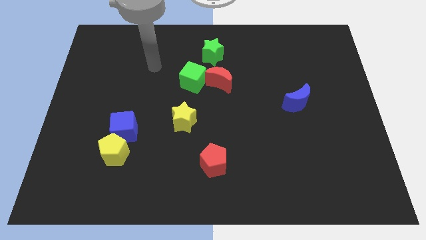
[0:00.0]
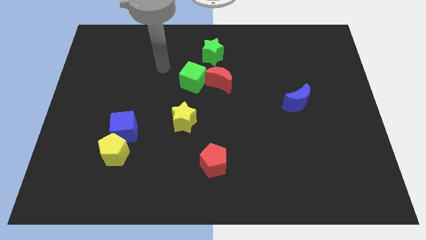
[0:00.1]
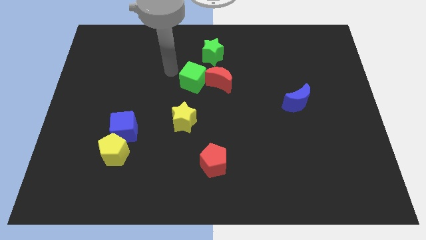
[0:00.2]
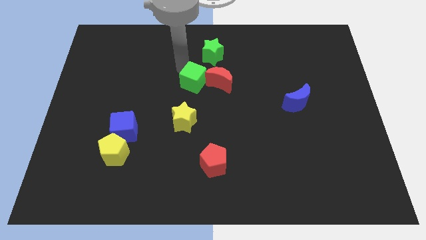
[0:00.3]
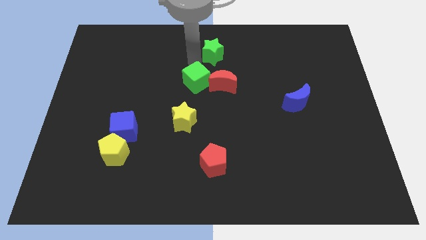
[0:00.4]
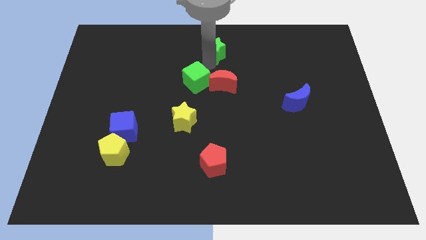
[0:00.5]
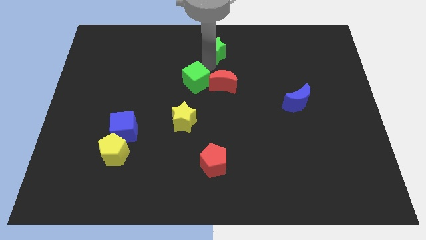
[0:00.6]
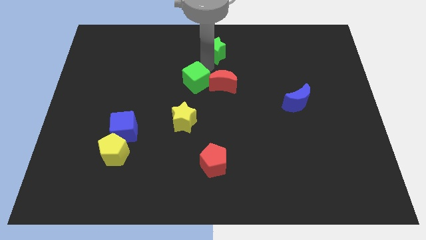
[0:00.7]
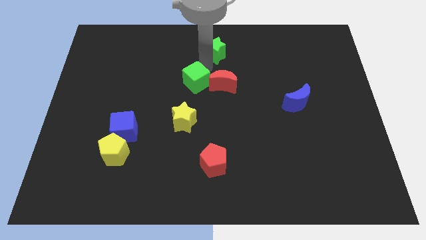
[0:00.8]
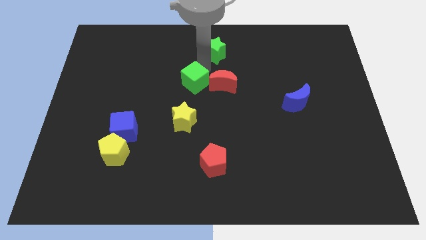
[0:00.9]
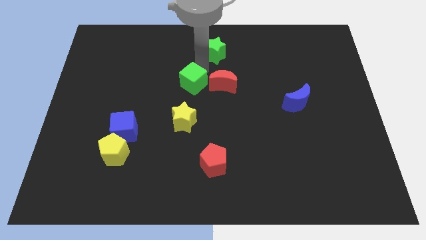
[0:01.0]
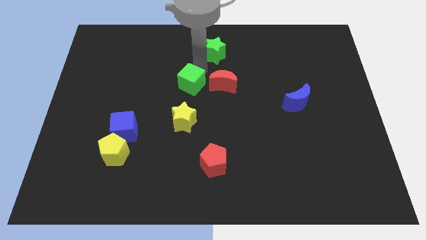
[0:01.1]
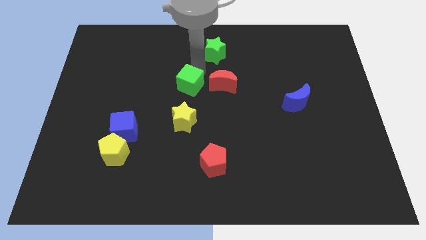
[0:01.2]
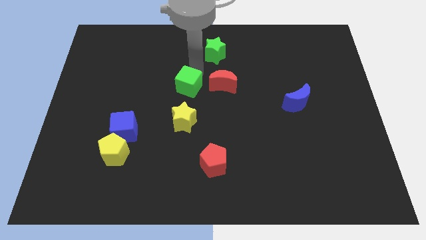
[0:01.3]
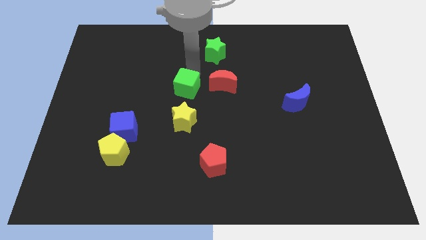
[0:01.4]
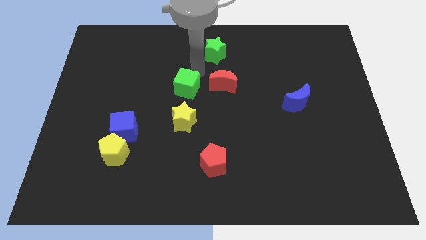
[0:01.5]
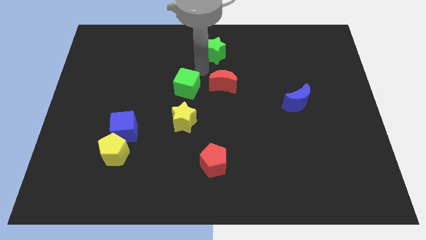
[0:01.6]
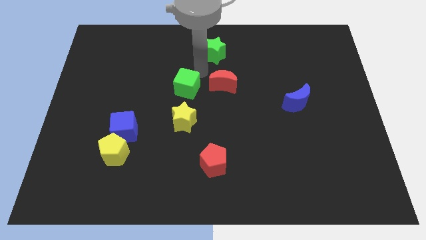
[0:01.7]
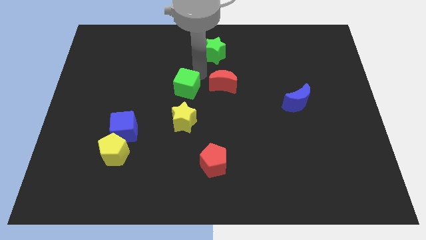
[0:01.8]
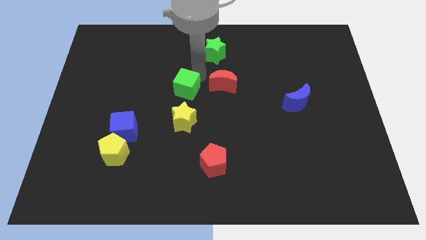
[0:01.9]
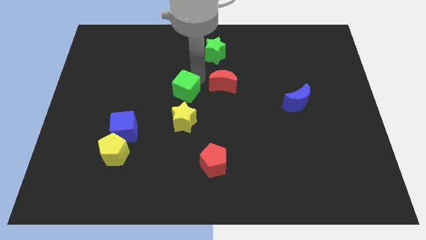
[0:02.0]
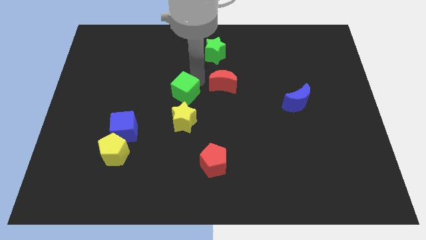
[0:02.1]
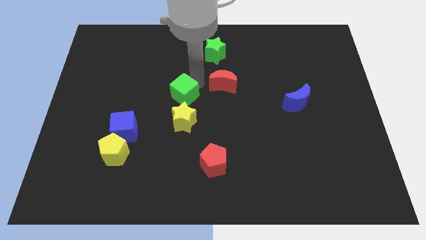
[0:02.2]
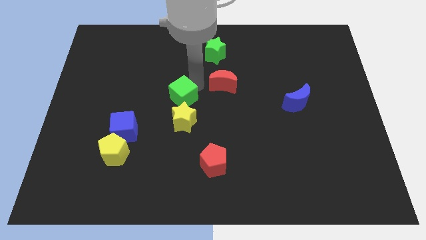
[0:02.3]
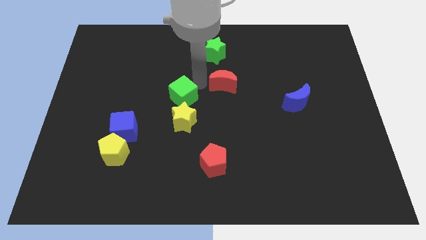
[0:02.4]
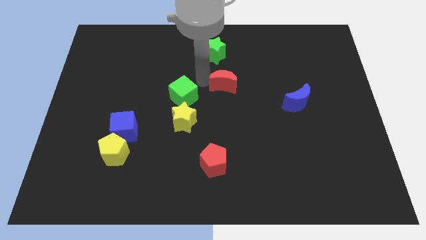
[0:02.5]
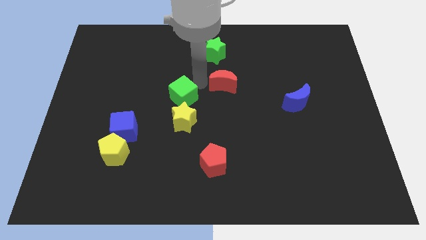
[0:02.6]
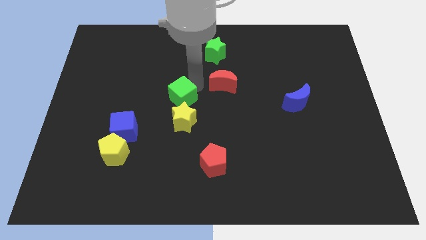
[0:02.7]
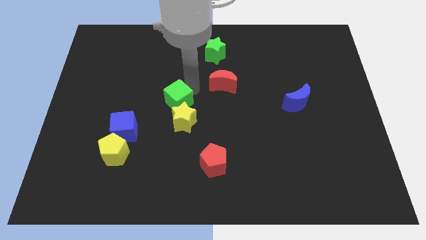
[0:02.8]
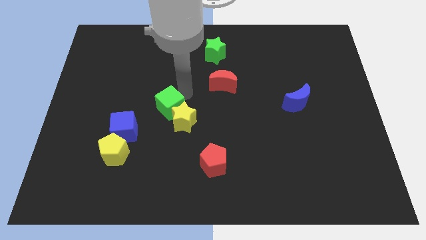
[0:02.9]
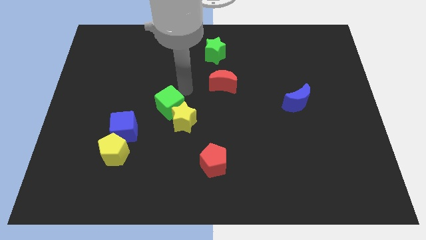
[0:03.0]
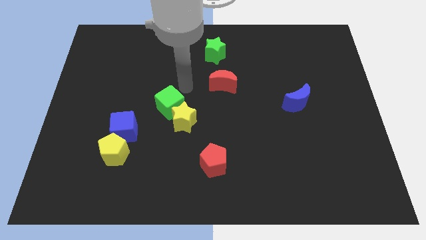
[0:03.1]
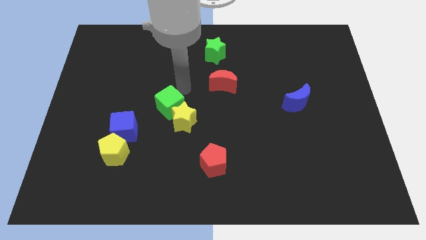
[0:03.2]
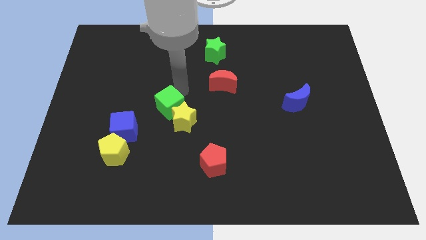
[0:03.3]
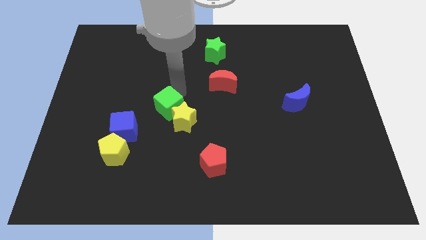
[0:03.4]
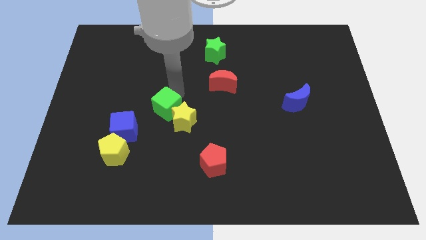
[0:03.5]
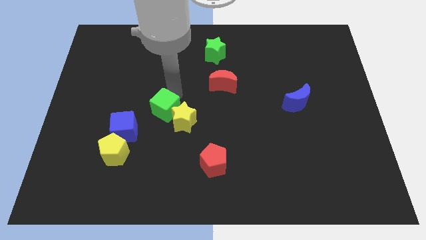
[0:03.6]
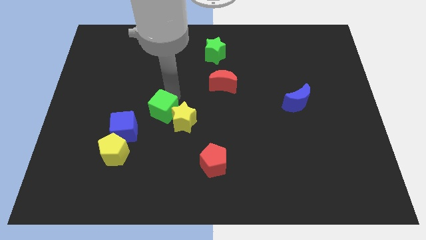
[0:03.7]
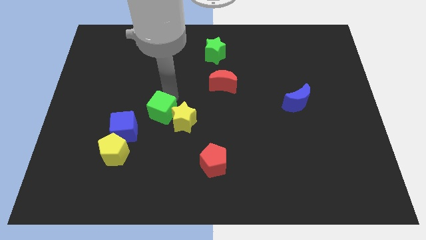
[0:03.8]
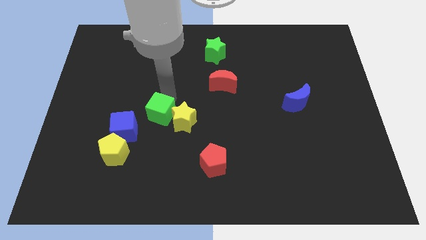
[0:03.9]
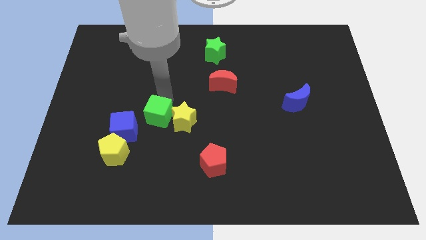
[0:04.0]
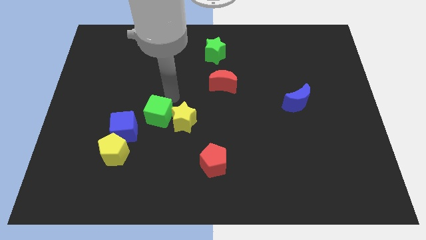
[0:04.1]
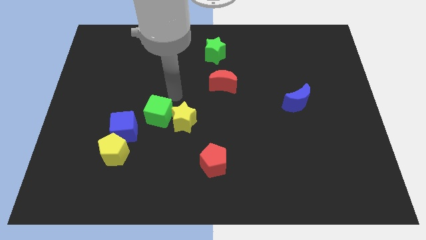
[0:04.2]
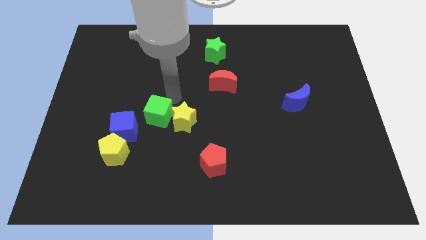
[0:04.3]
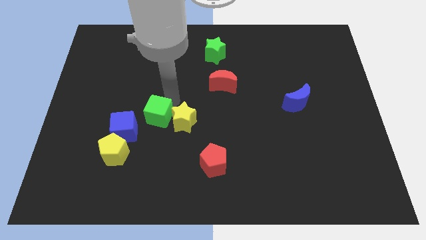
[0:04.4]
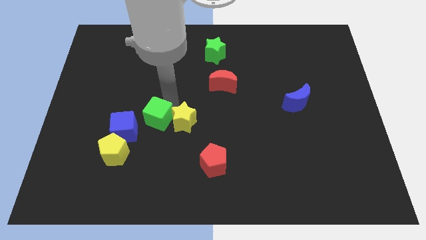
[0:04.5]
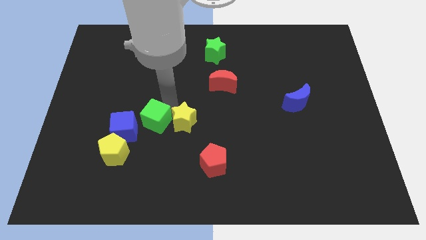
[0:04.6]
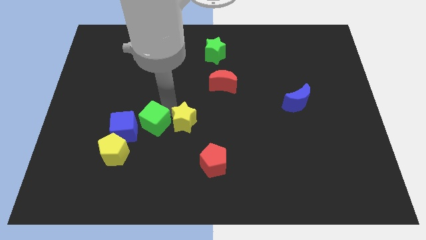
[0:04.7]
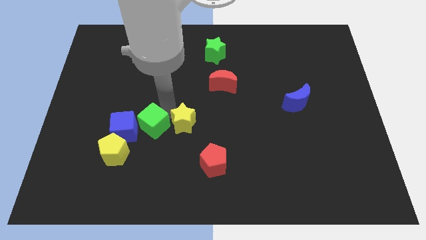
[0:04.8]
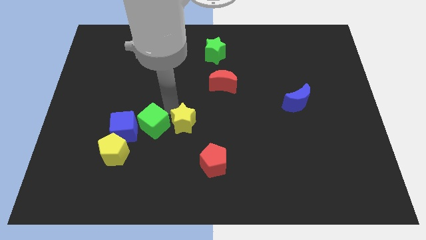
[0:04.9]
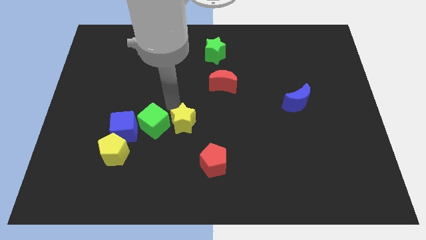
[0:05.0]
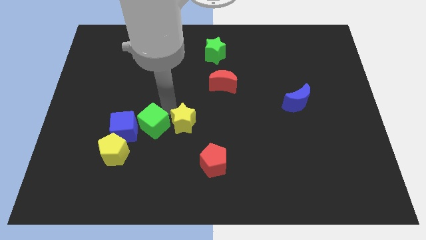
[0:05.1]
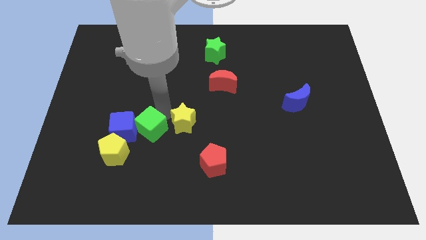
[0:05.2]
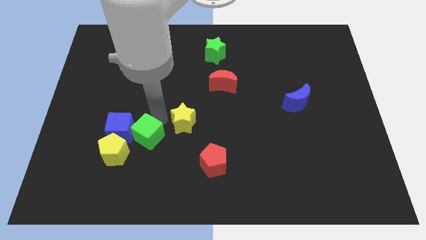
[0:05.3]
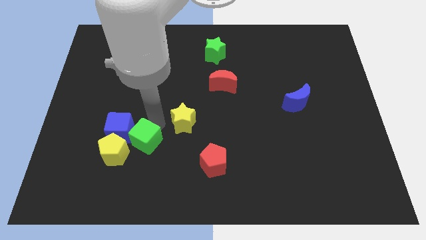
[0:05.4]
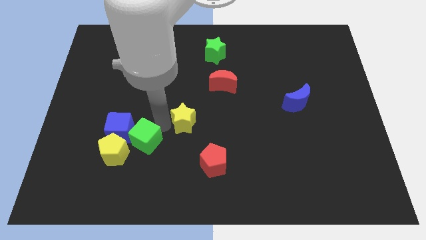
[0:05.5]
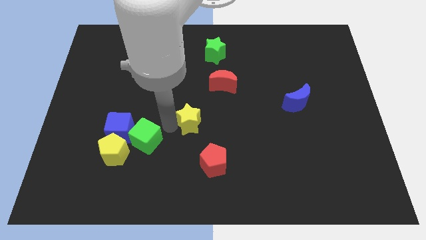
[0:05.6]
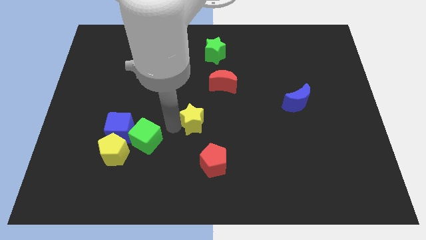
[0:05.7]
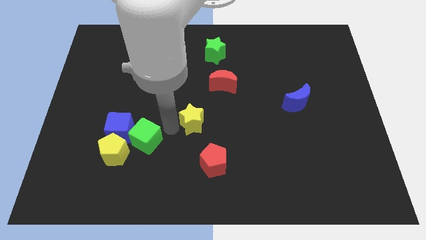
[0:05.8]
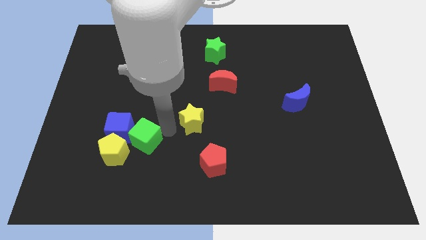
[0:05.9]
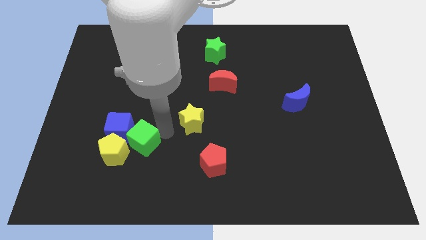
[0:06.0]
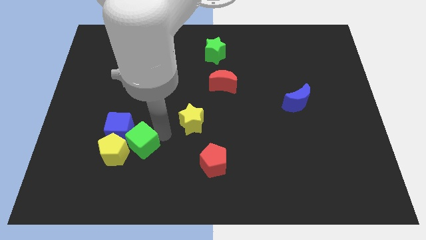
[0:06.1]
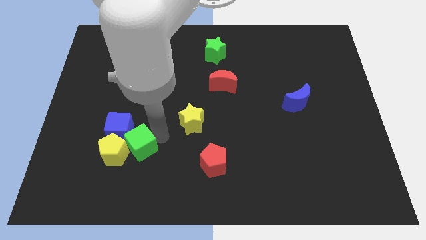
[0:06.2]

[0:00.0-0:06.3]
put the green cube to the yellow pentagon

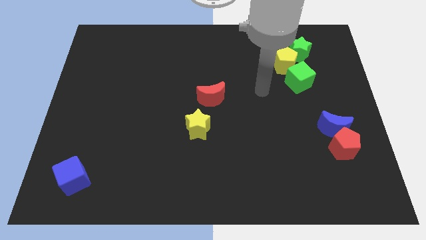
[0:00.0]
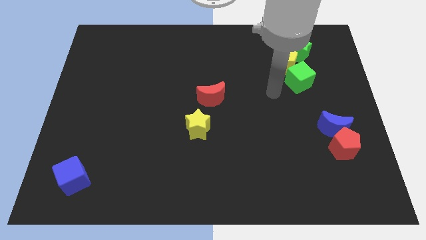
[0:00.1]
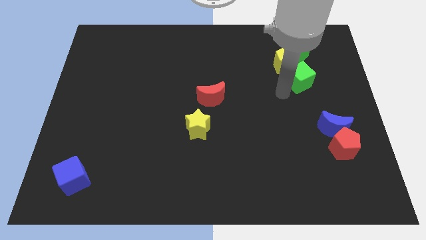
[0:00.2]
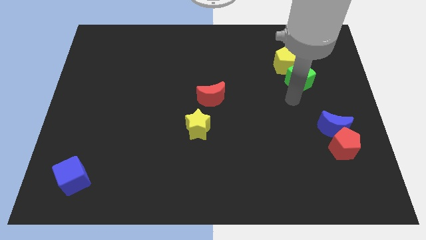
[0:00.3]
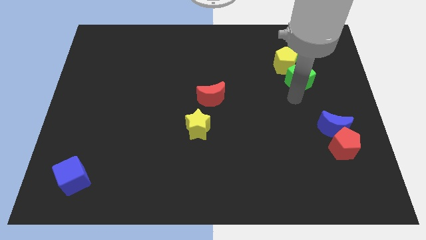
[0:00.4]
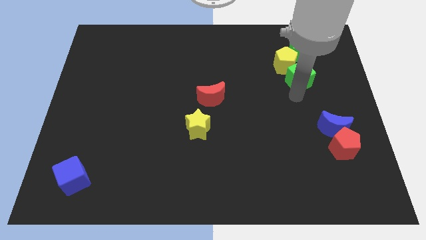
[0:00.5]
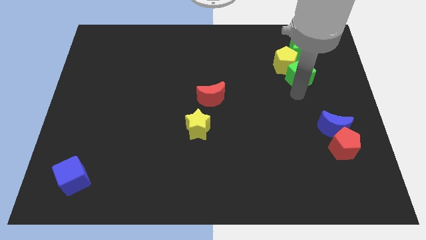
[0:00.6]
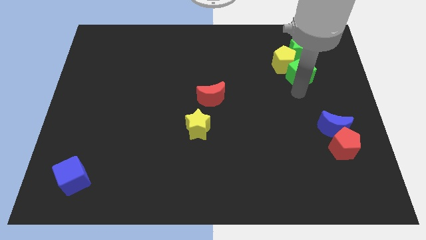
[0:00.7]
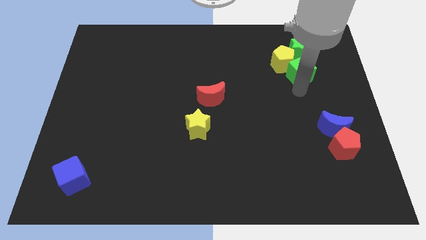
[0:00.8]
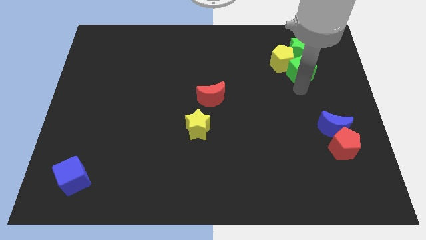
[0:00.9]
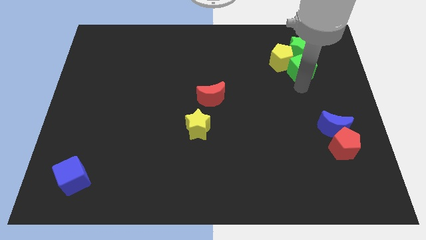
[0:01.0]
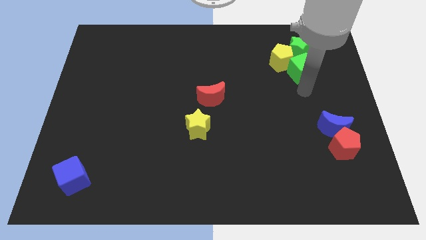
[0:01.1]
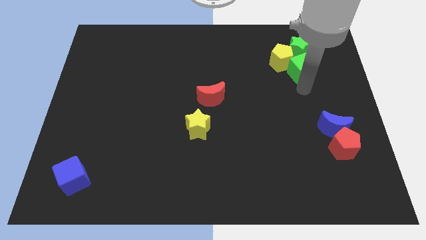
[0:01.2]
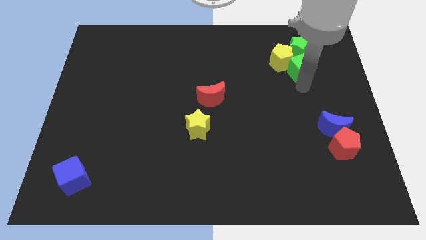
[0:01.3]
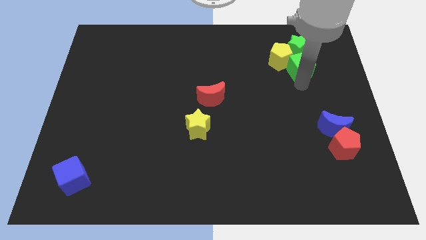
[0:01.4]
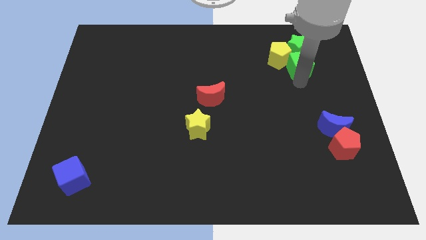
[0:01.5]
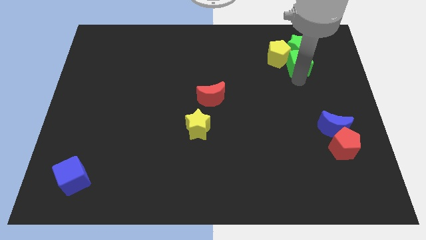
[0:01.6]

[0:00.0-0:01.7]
push the green cube next to the green star
